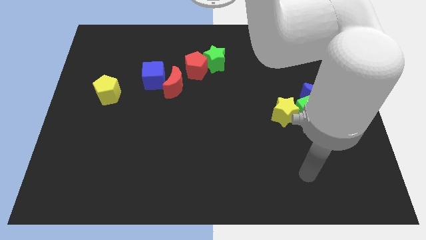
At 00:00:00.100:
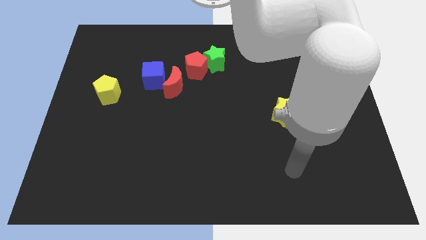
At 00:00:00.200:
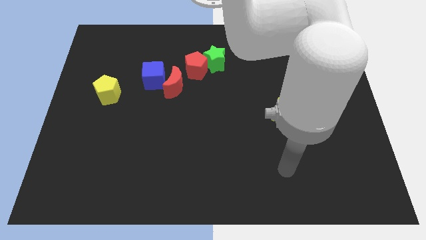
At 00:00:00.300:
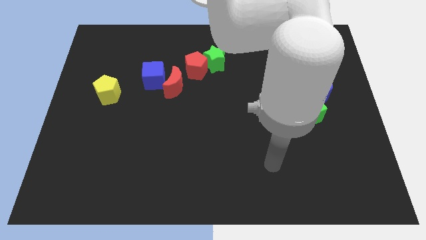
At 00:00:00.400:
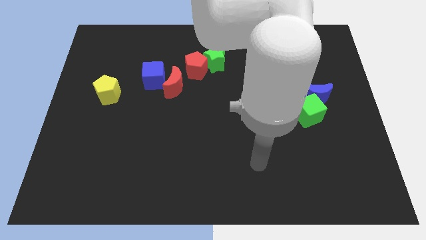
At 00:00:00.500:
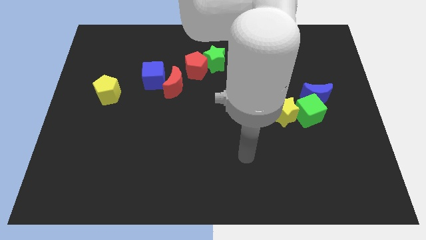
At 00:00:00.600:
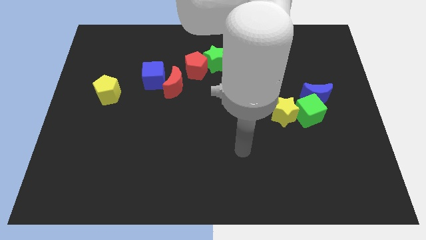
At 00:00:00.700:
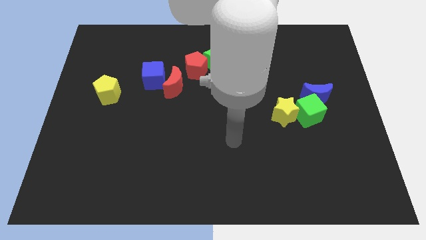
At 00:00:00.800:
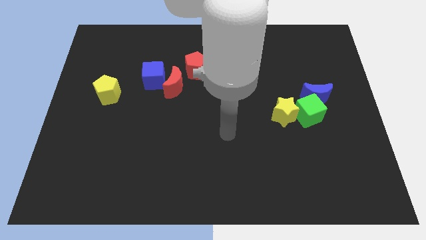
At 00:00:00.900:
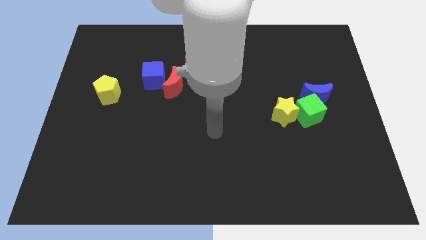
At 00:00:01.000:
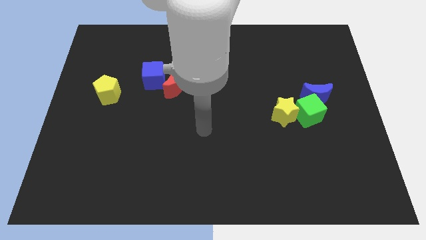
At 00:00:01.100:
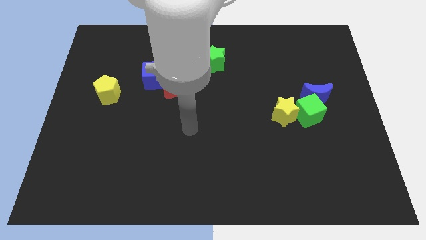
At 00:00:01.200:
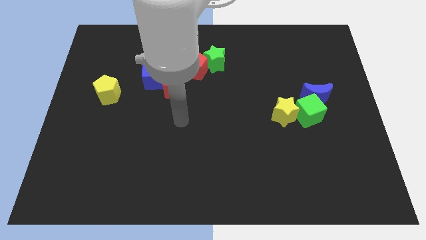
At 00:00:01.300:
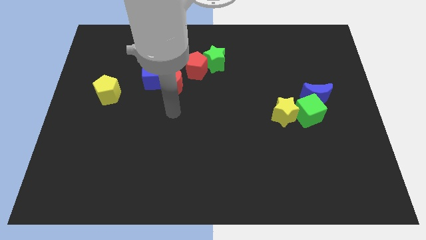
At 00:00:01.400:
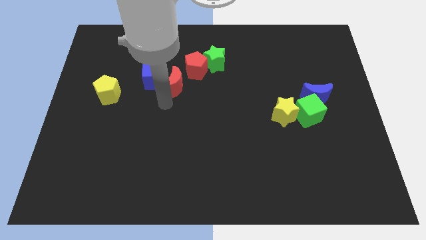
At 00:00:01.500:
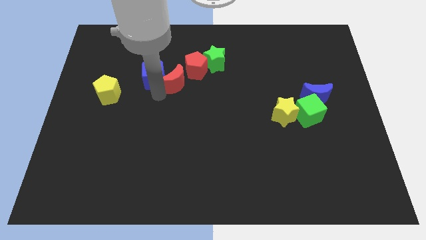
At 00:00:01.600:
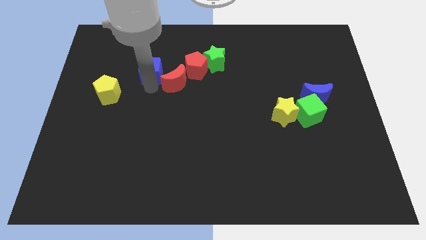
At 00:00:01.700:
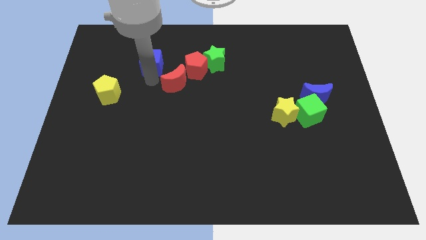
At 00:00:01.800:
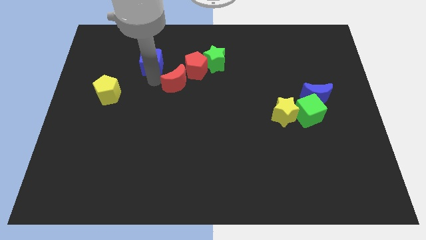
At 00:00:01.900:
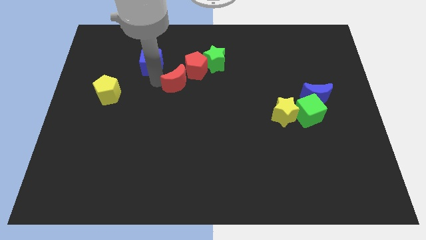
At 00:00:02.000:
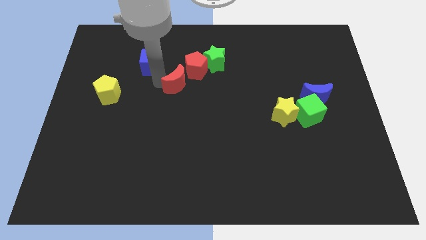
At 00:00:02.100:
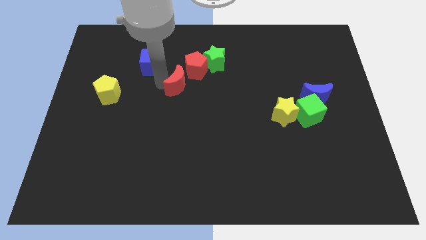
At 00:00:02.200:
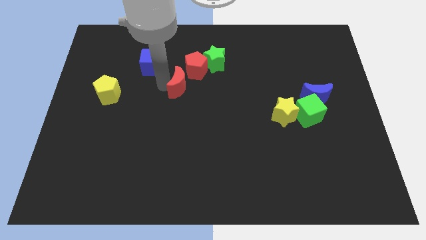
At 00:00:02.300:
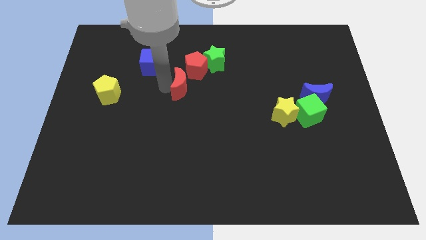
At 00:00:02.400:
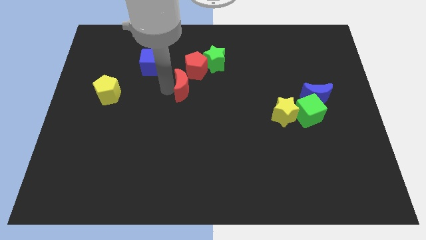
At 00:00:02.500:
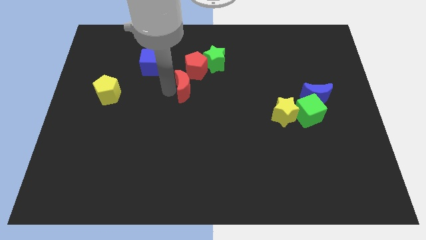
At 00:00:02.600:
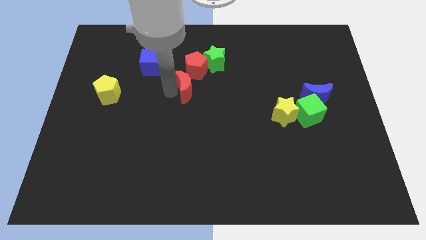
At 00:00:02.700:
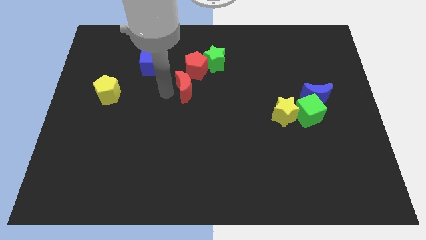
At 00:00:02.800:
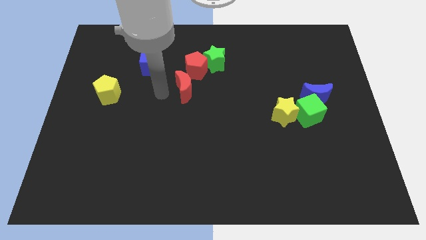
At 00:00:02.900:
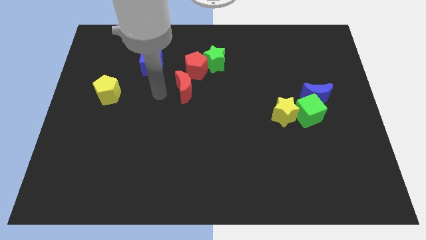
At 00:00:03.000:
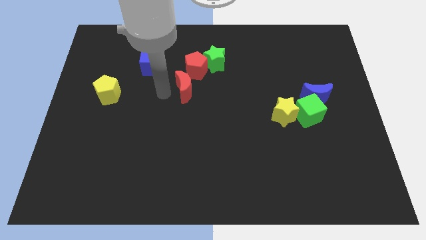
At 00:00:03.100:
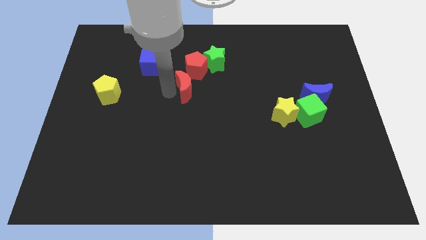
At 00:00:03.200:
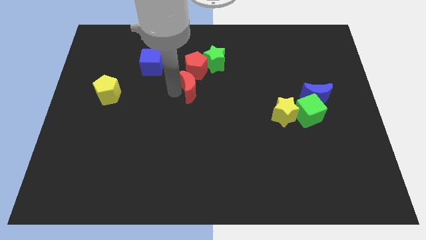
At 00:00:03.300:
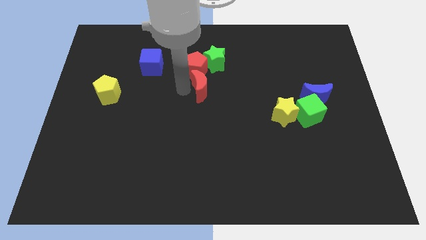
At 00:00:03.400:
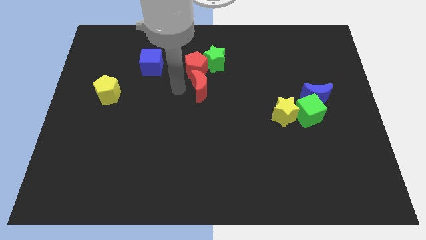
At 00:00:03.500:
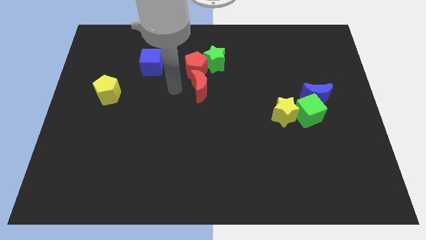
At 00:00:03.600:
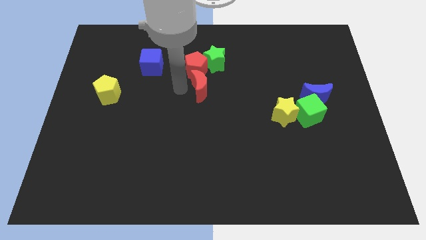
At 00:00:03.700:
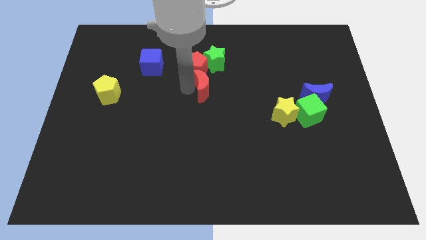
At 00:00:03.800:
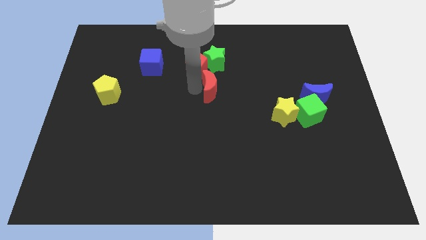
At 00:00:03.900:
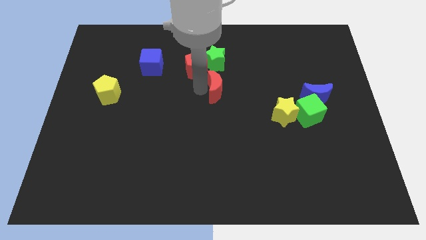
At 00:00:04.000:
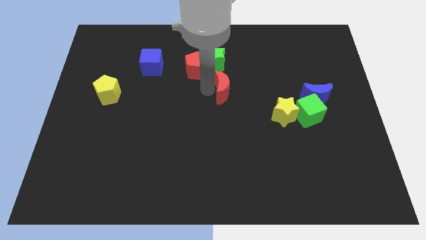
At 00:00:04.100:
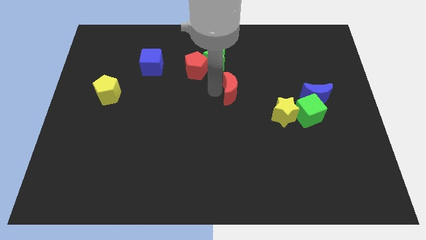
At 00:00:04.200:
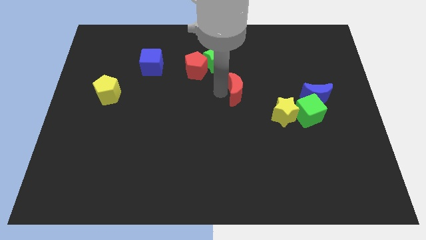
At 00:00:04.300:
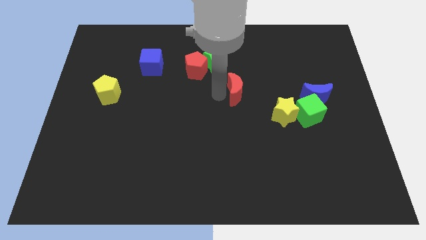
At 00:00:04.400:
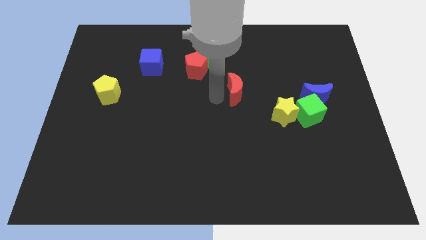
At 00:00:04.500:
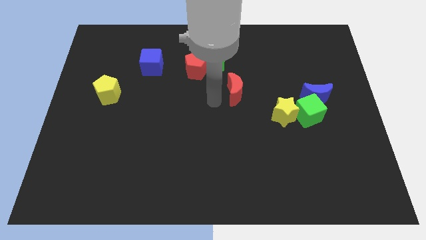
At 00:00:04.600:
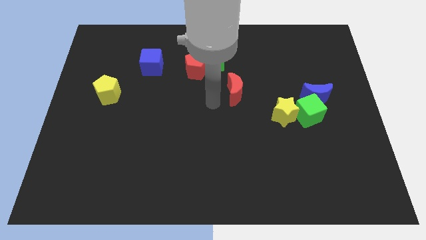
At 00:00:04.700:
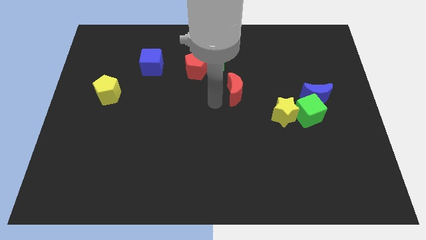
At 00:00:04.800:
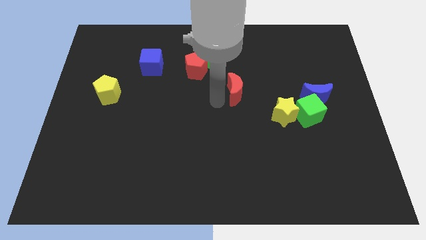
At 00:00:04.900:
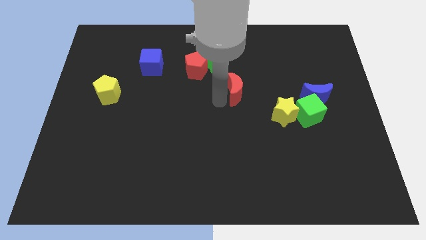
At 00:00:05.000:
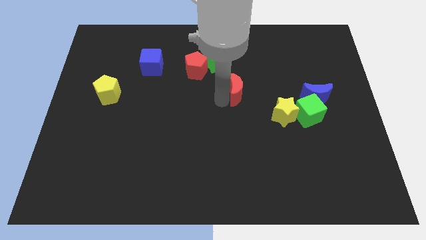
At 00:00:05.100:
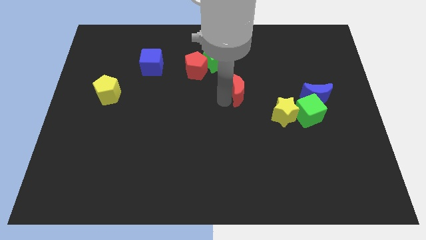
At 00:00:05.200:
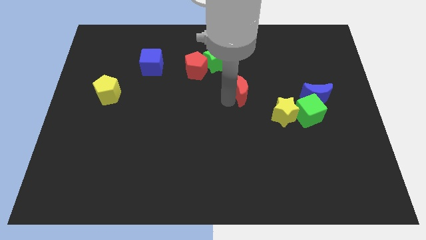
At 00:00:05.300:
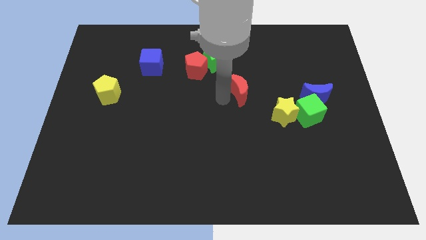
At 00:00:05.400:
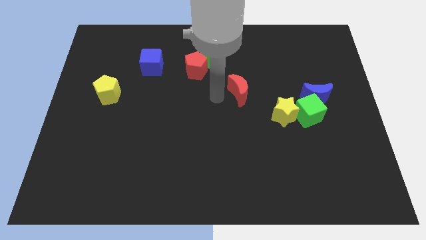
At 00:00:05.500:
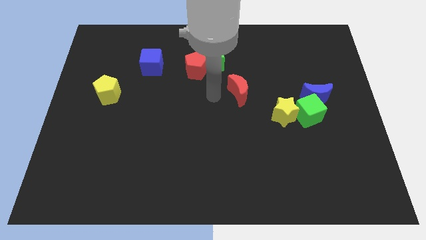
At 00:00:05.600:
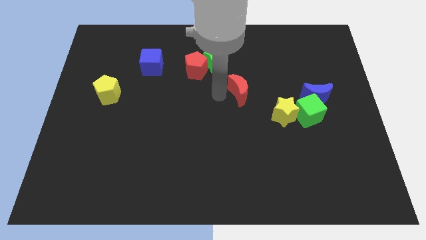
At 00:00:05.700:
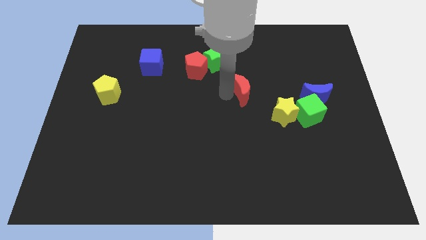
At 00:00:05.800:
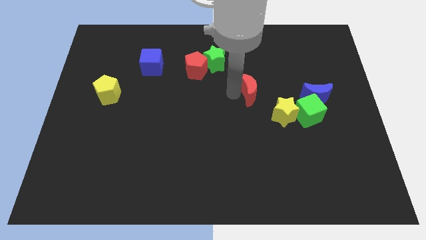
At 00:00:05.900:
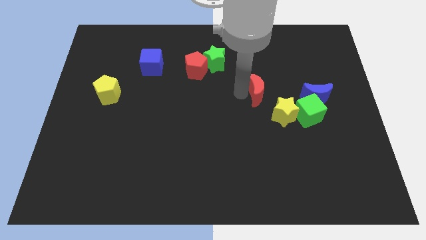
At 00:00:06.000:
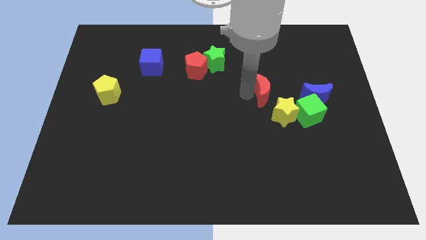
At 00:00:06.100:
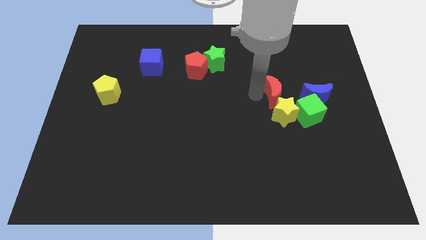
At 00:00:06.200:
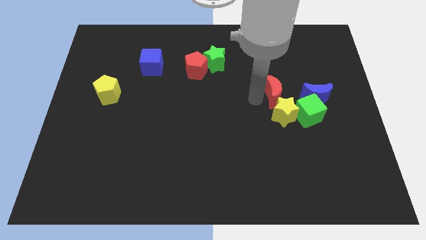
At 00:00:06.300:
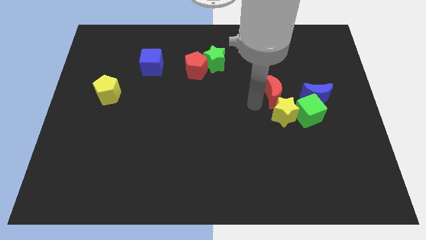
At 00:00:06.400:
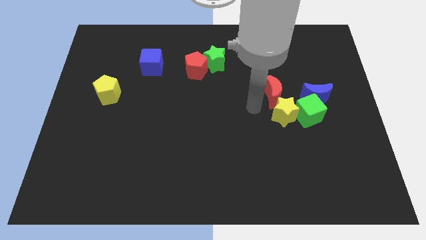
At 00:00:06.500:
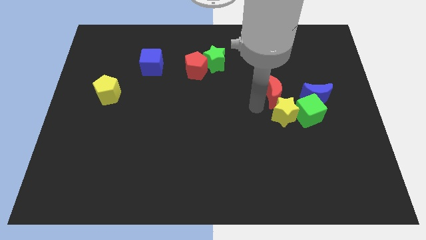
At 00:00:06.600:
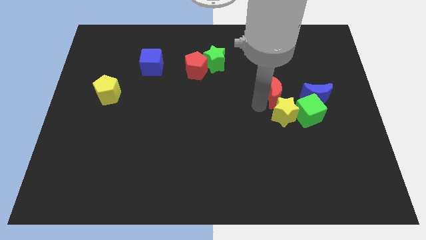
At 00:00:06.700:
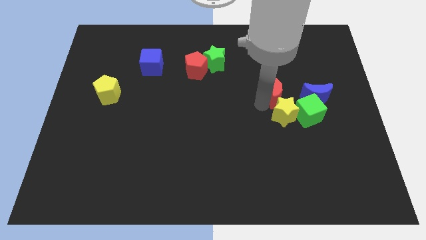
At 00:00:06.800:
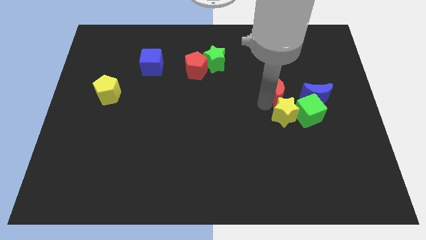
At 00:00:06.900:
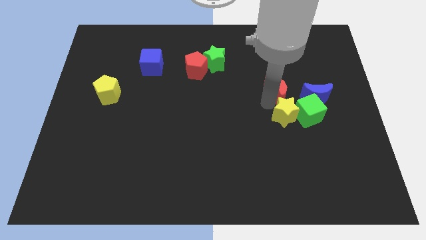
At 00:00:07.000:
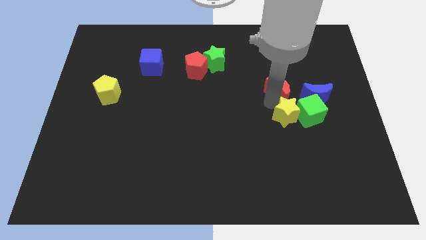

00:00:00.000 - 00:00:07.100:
move the red moon to the top left side of the blue moon
